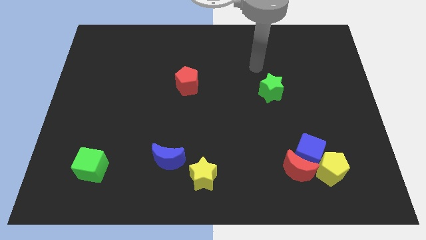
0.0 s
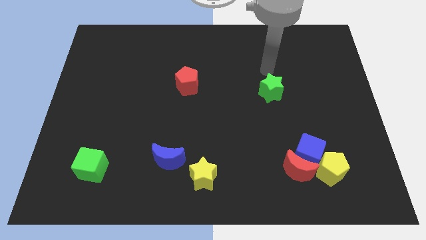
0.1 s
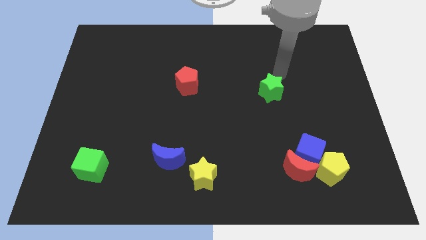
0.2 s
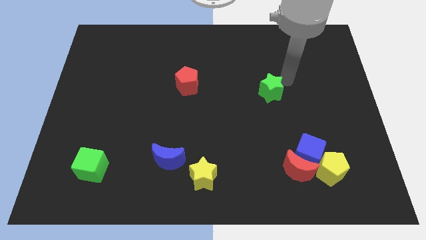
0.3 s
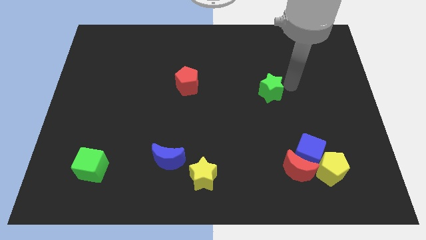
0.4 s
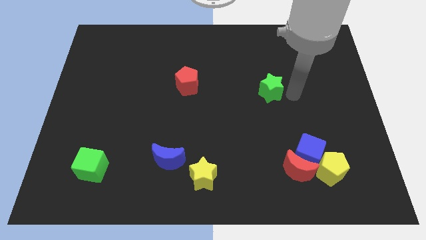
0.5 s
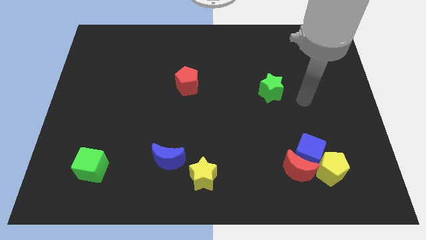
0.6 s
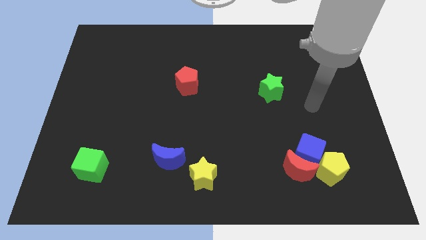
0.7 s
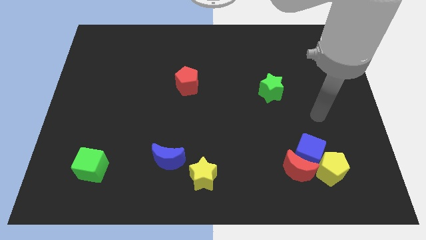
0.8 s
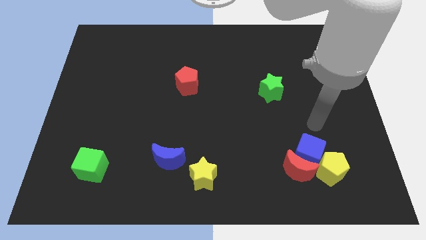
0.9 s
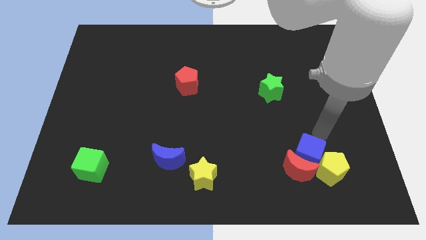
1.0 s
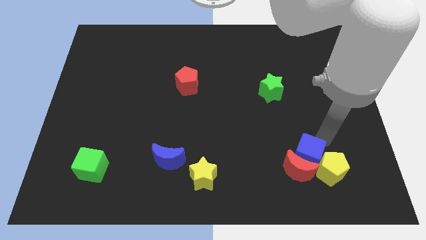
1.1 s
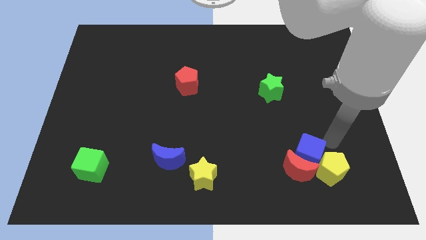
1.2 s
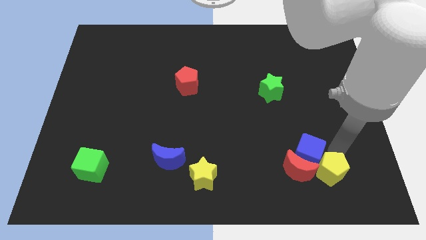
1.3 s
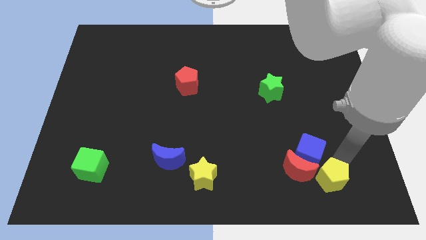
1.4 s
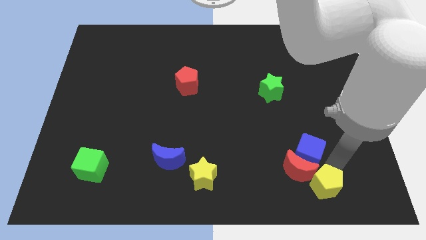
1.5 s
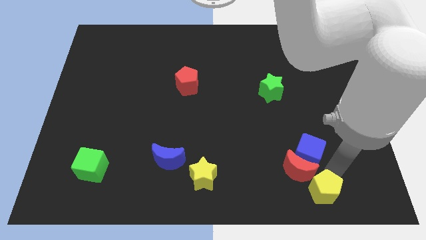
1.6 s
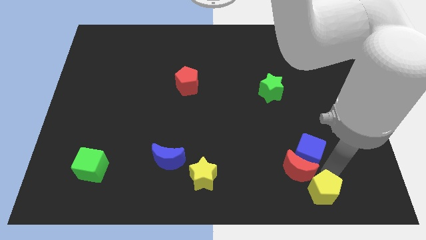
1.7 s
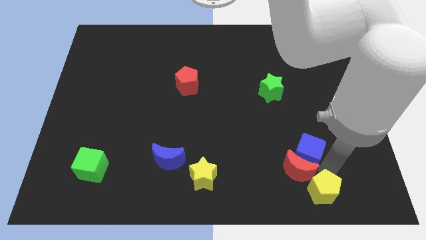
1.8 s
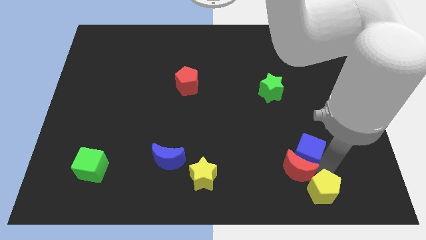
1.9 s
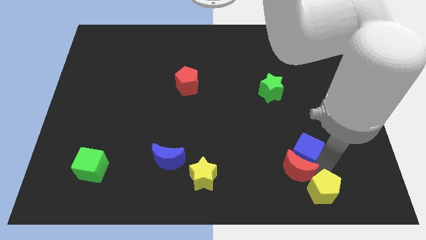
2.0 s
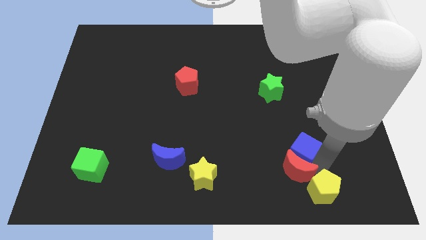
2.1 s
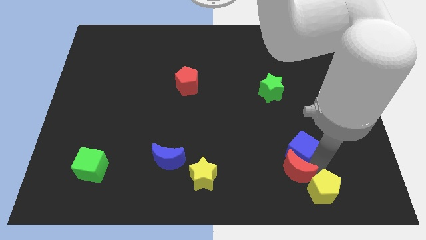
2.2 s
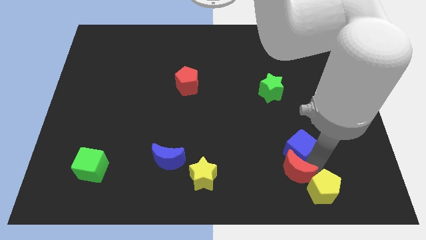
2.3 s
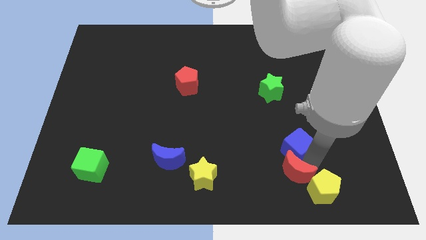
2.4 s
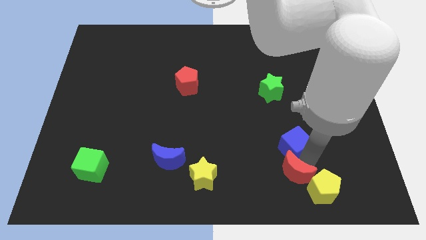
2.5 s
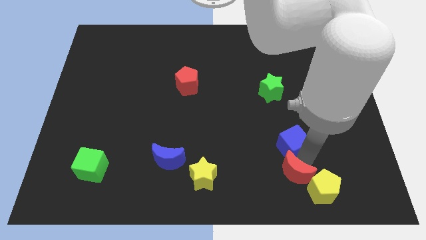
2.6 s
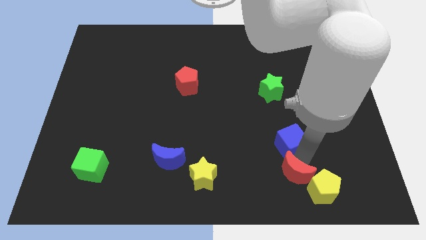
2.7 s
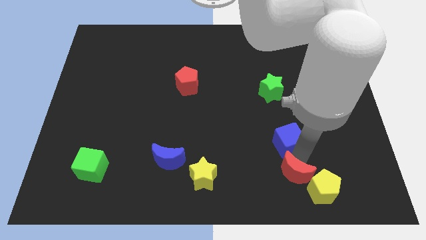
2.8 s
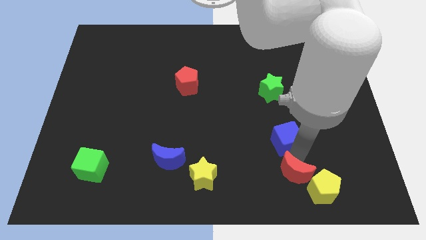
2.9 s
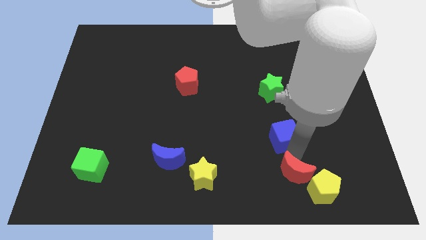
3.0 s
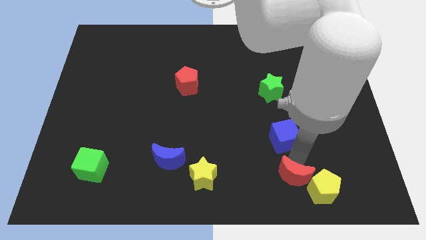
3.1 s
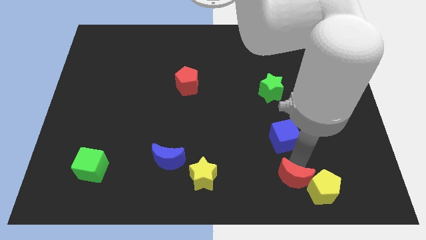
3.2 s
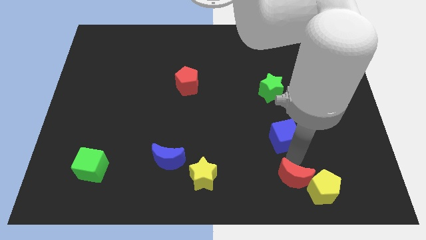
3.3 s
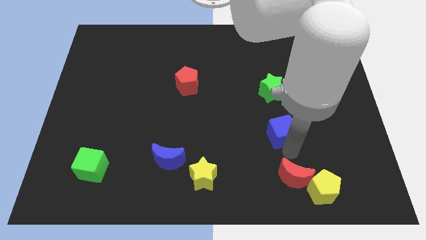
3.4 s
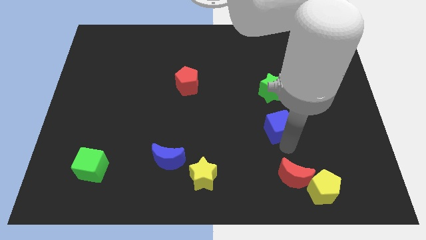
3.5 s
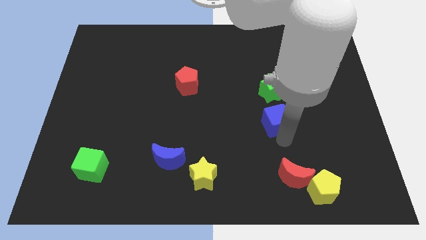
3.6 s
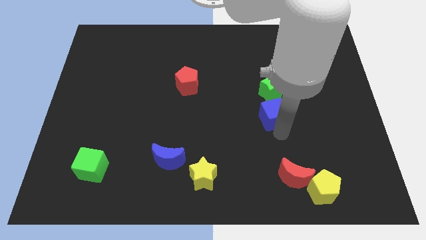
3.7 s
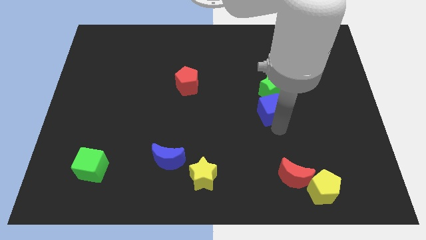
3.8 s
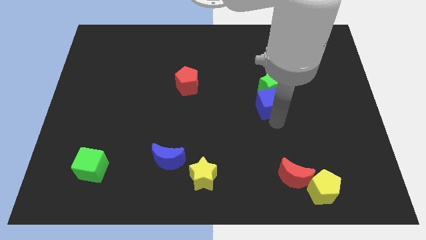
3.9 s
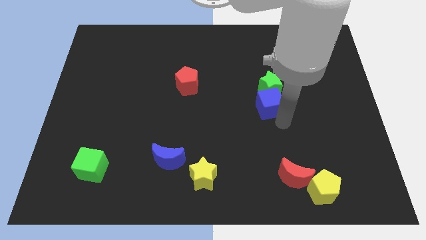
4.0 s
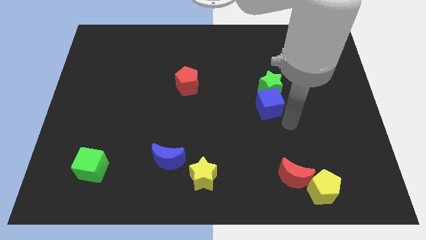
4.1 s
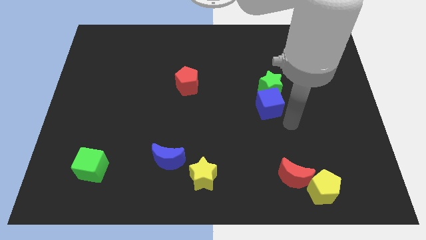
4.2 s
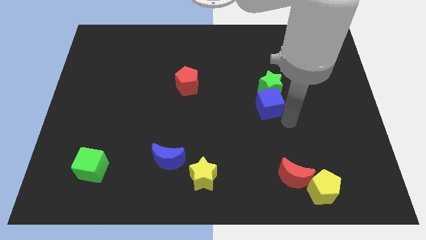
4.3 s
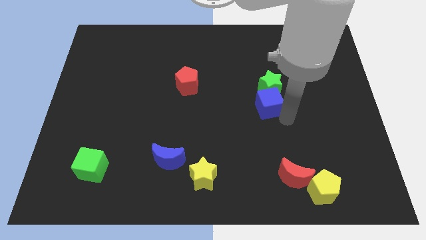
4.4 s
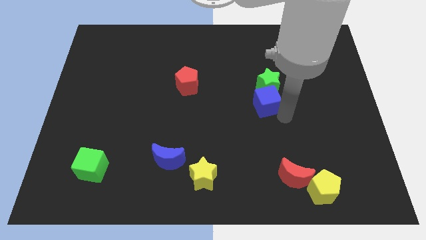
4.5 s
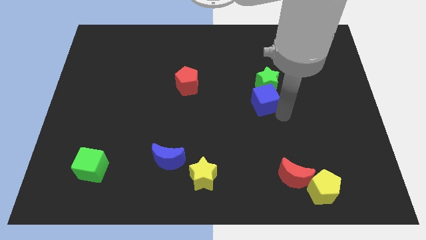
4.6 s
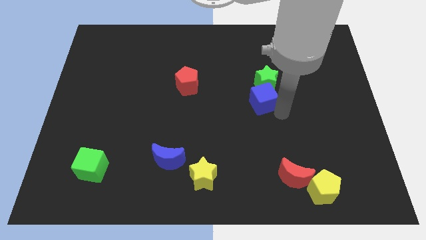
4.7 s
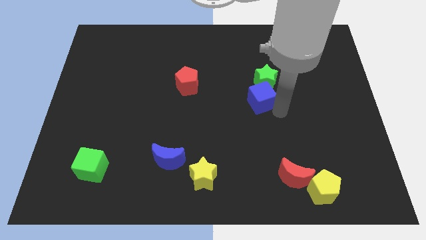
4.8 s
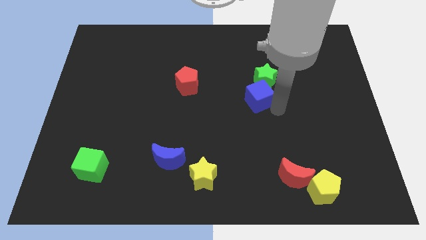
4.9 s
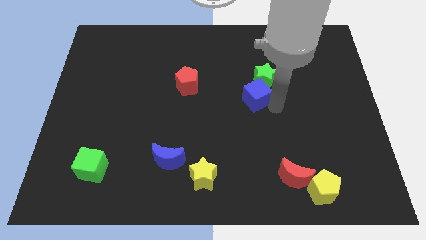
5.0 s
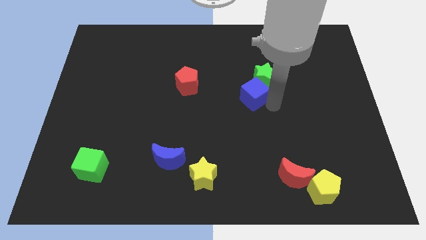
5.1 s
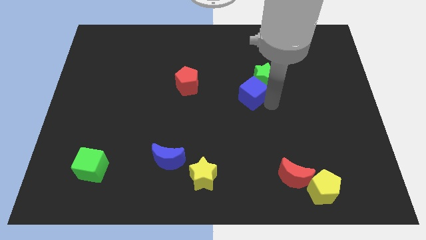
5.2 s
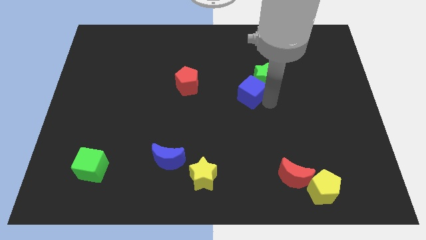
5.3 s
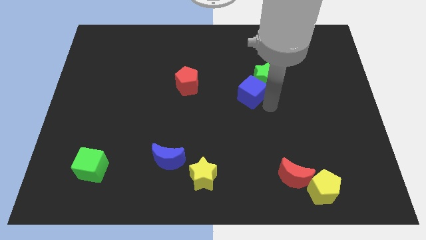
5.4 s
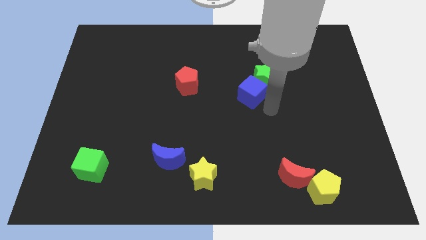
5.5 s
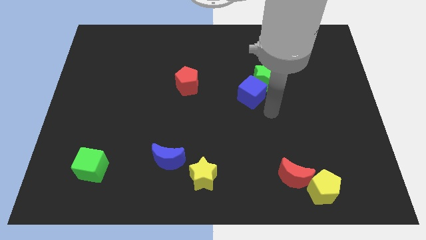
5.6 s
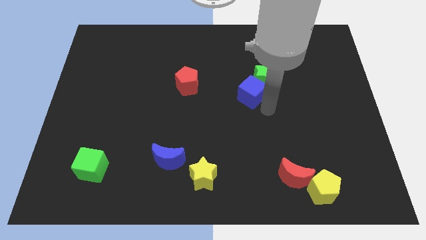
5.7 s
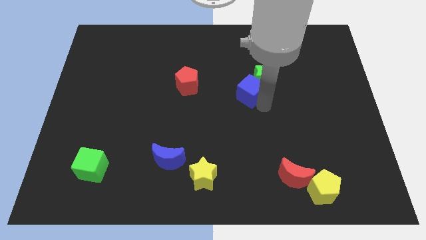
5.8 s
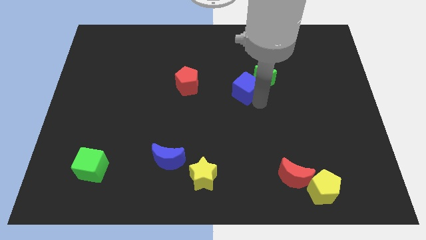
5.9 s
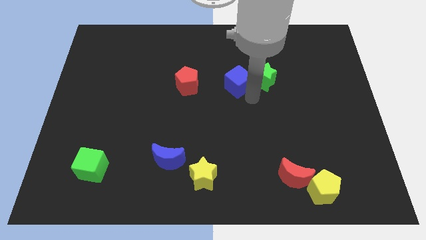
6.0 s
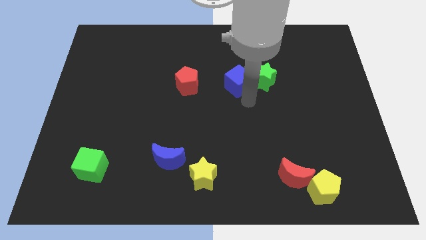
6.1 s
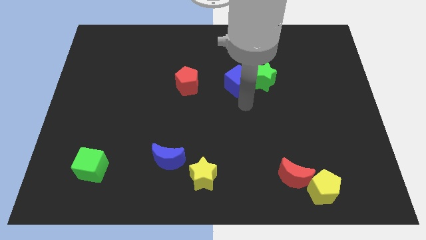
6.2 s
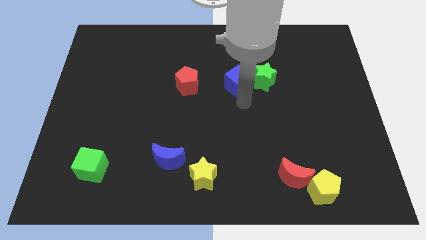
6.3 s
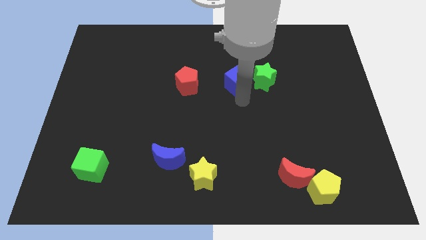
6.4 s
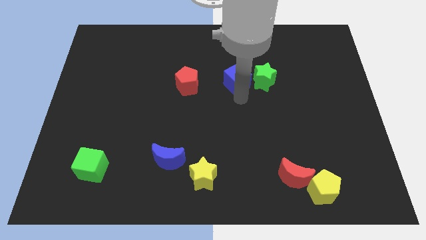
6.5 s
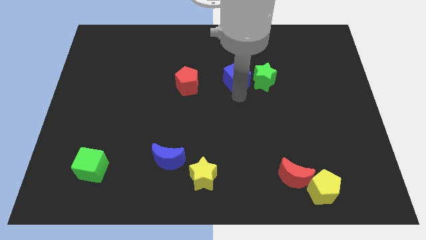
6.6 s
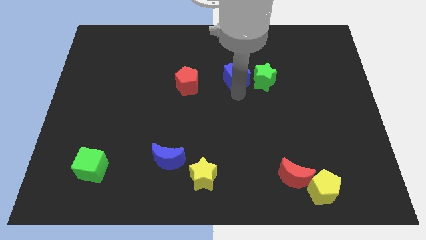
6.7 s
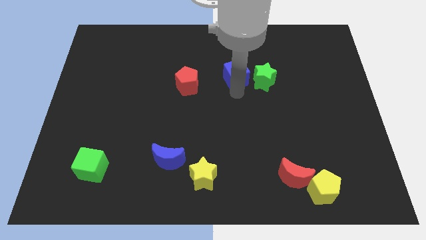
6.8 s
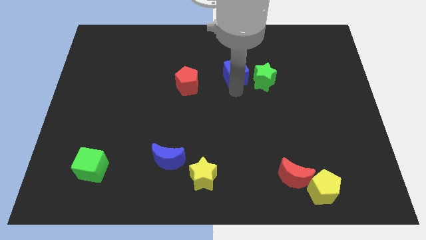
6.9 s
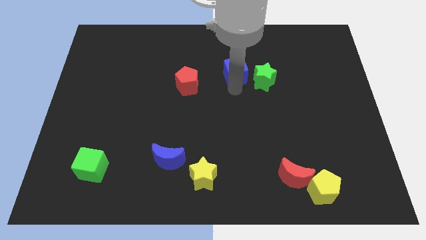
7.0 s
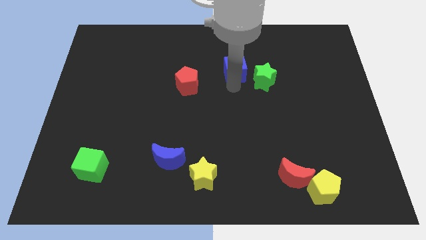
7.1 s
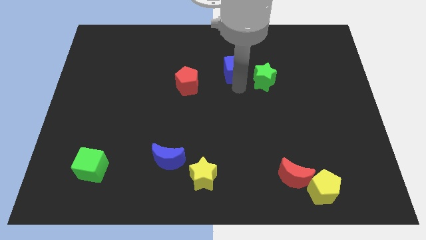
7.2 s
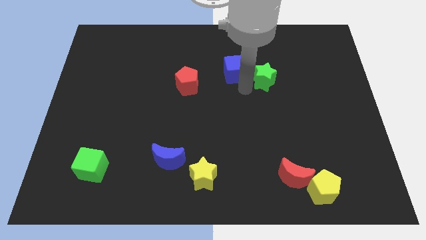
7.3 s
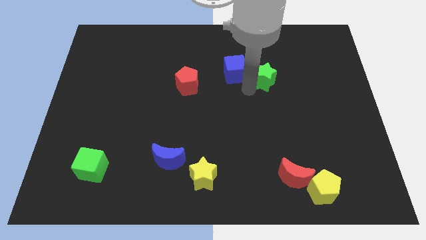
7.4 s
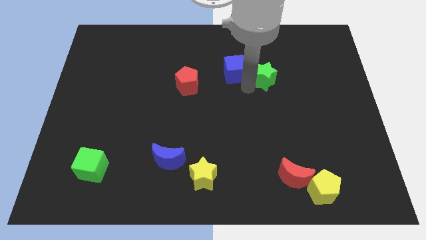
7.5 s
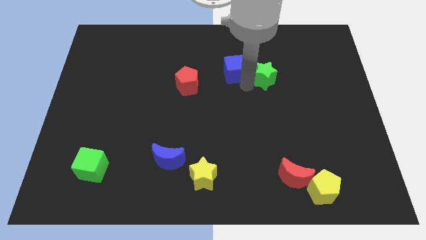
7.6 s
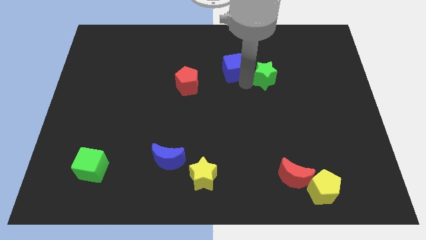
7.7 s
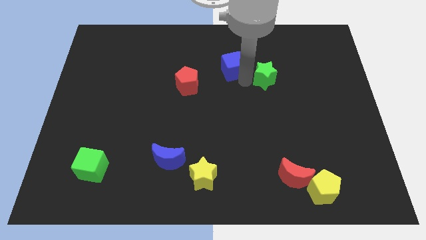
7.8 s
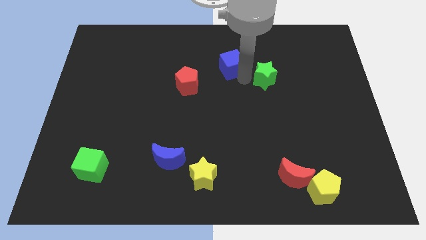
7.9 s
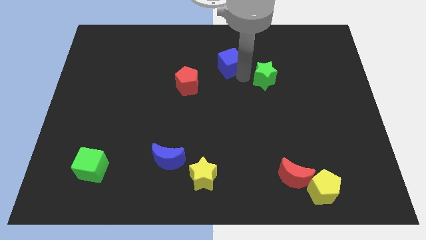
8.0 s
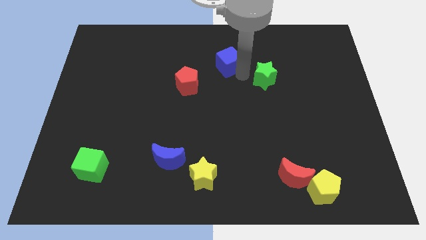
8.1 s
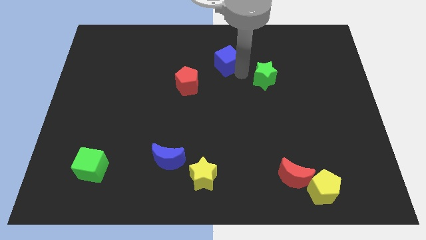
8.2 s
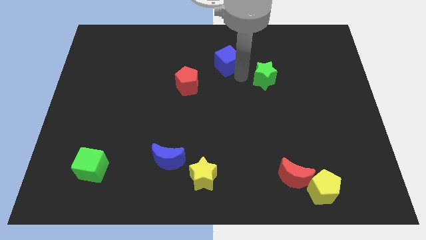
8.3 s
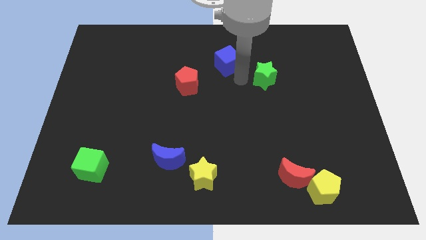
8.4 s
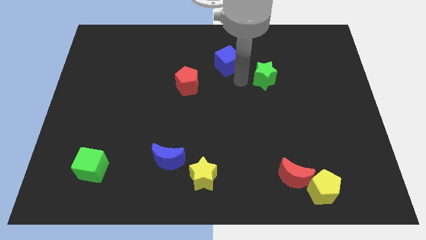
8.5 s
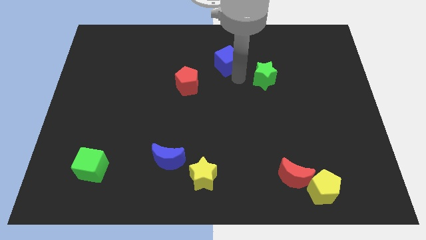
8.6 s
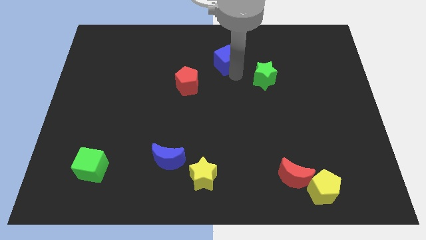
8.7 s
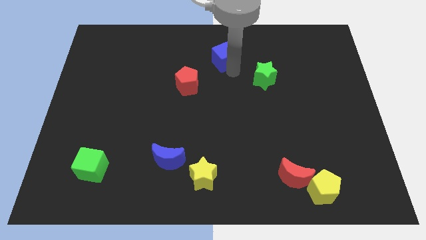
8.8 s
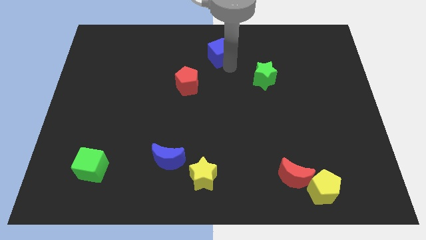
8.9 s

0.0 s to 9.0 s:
move the blue cube to the towards your base
